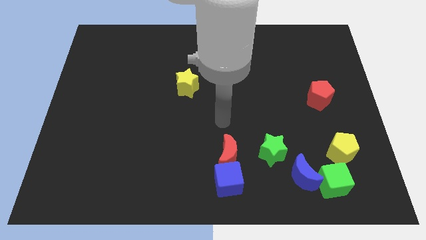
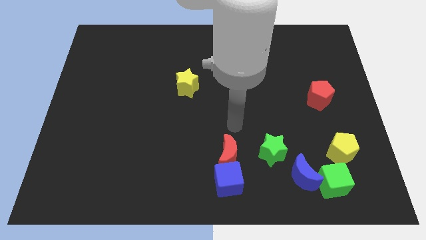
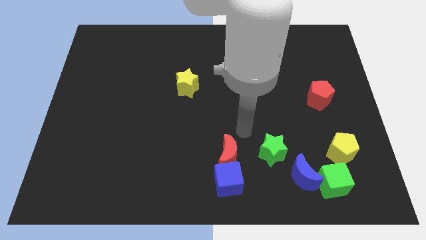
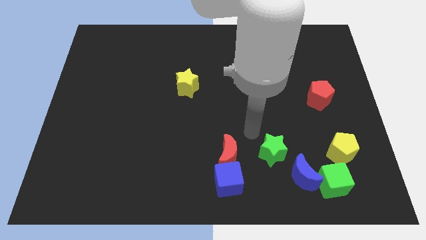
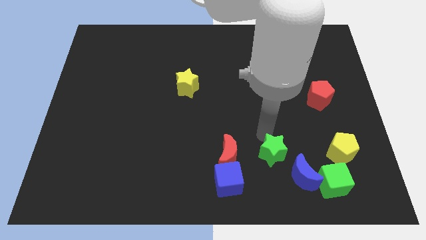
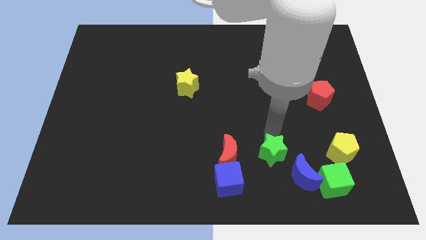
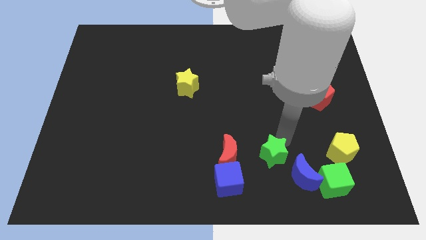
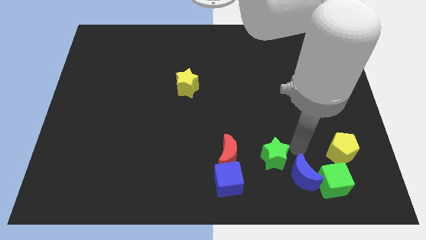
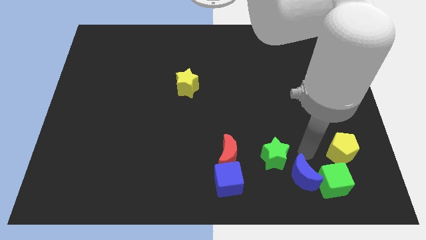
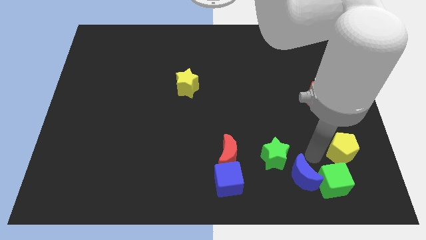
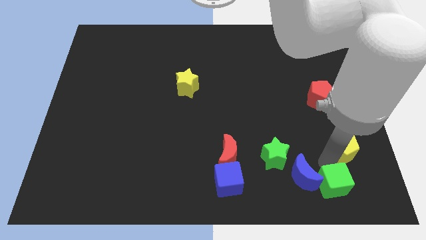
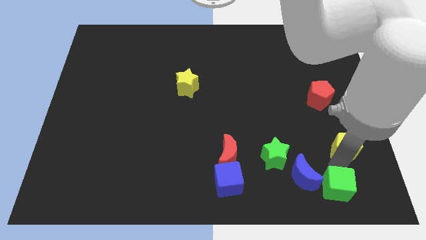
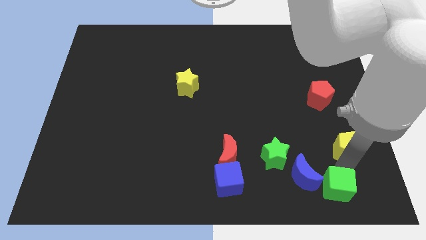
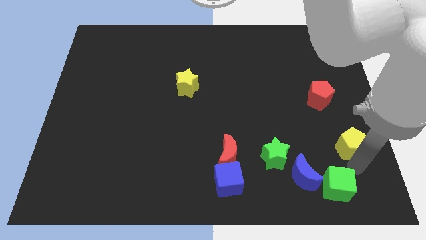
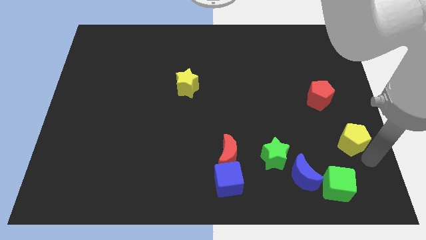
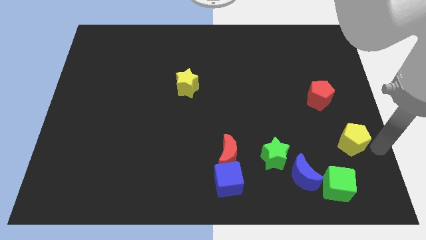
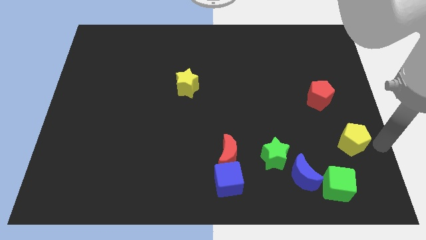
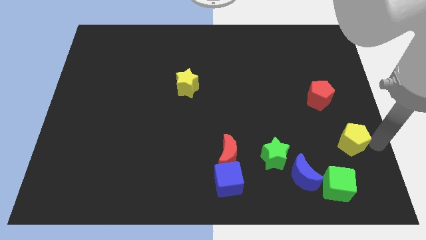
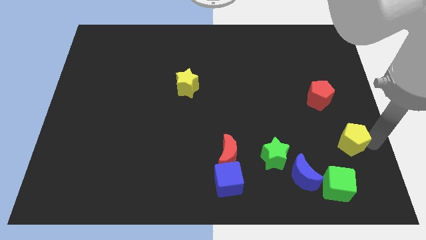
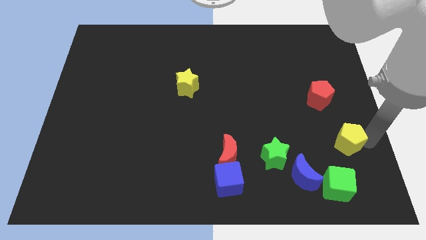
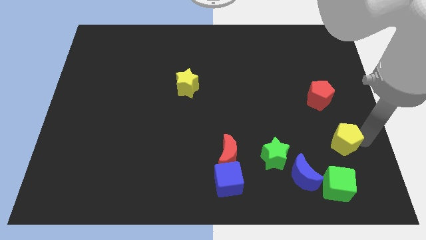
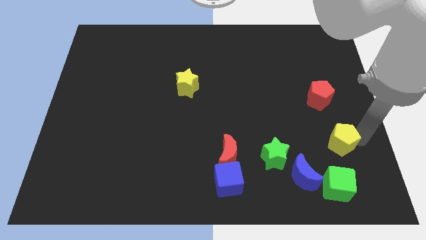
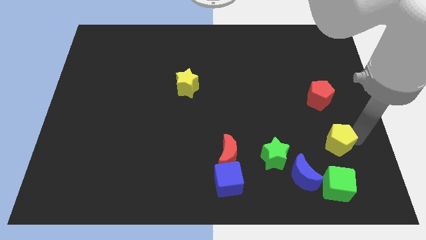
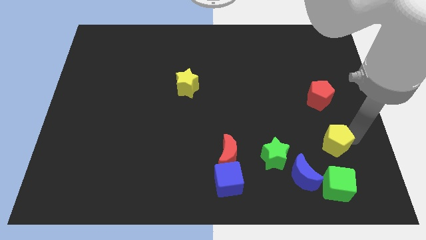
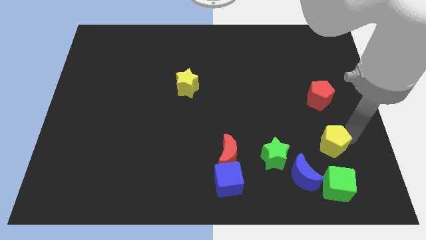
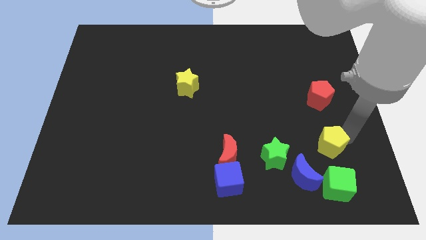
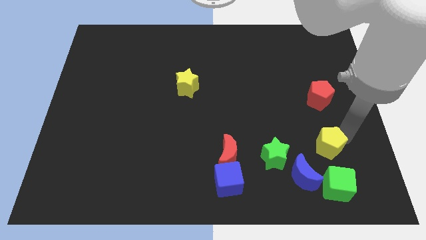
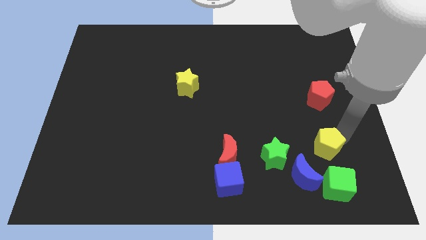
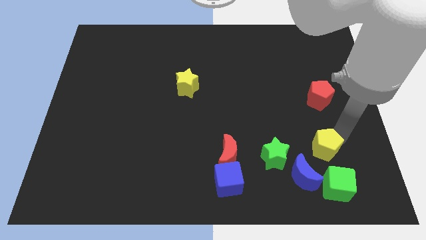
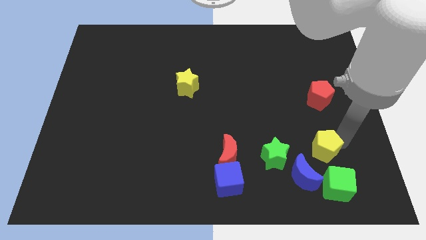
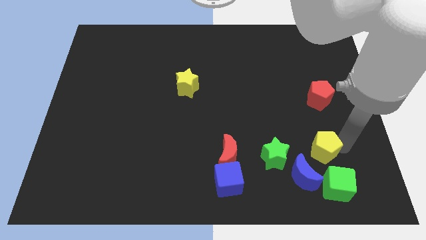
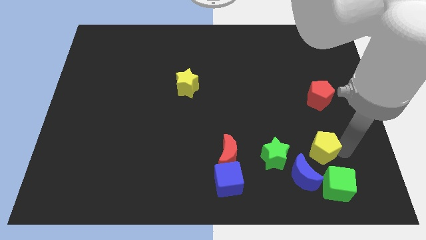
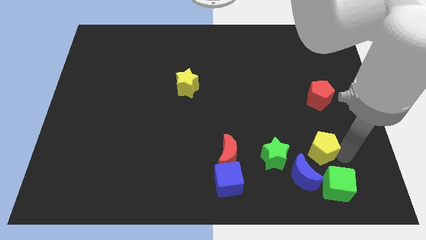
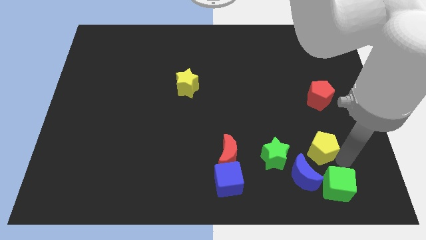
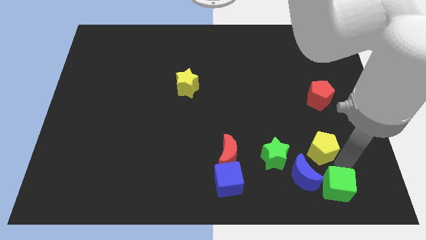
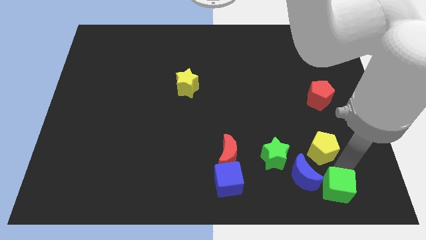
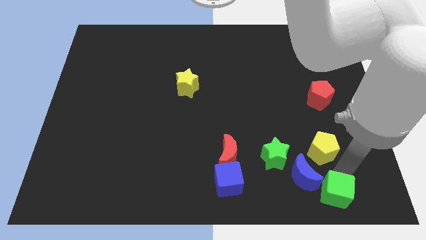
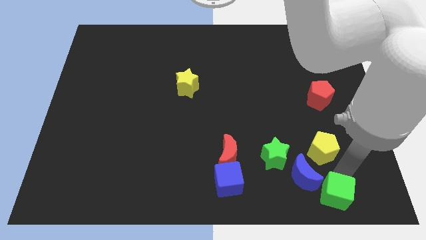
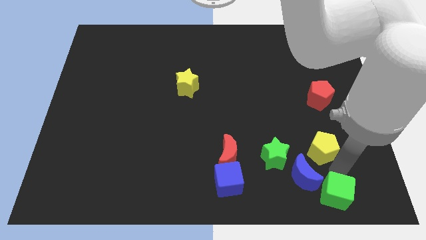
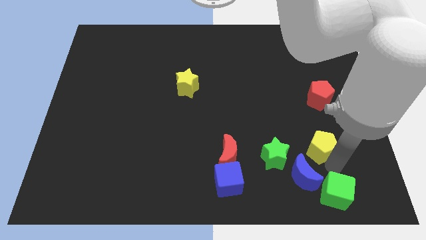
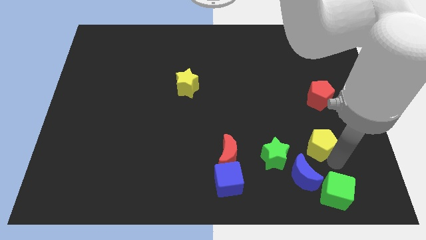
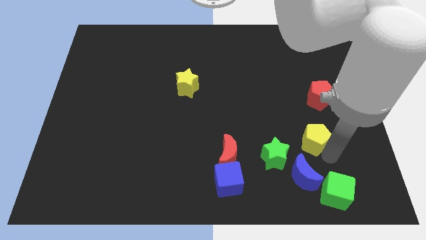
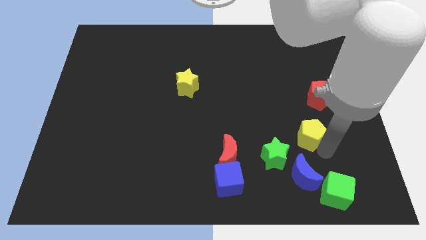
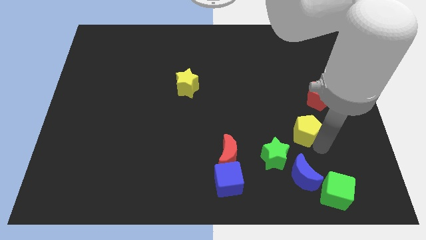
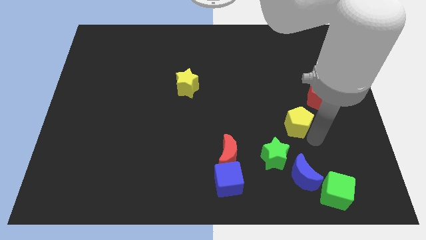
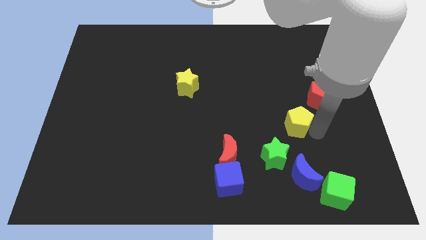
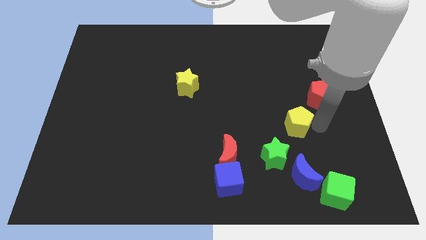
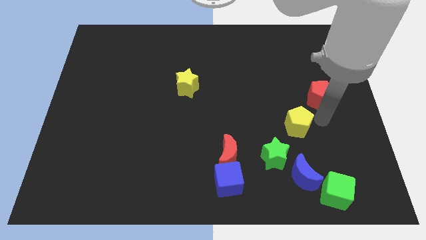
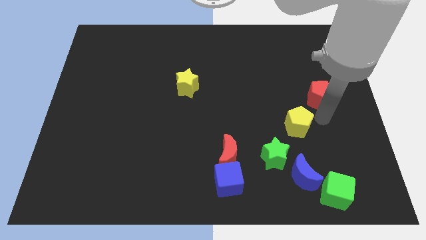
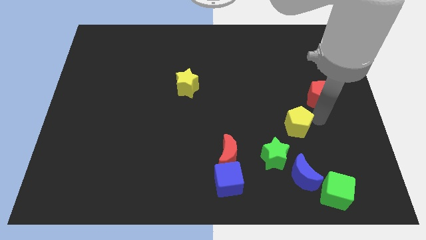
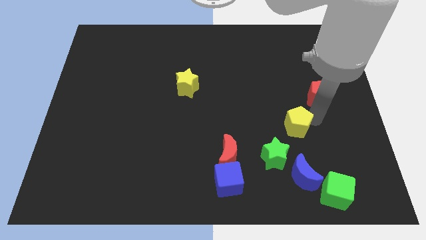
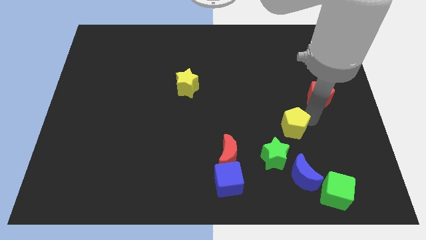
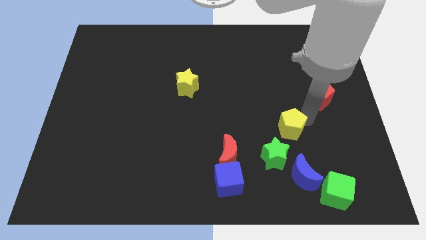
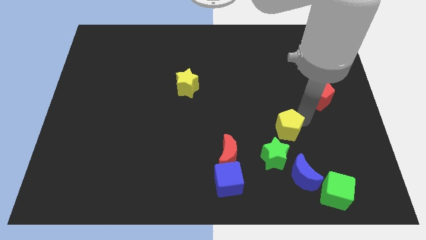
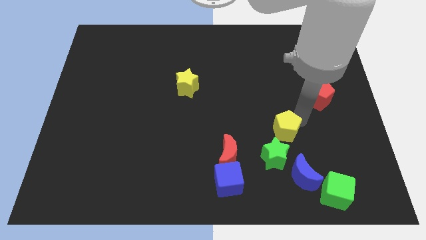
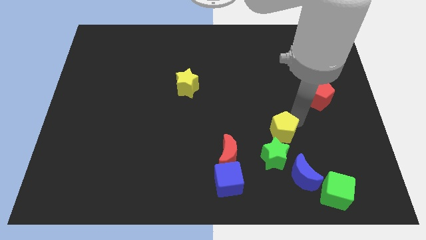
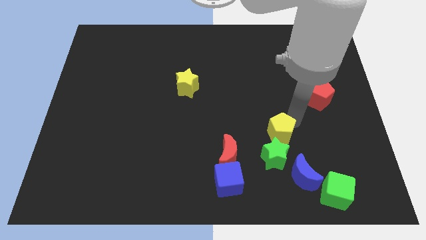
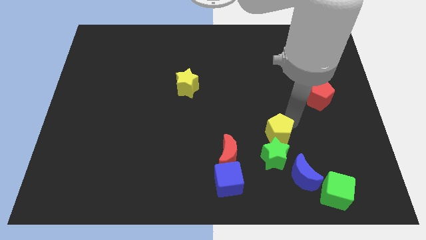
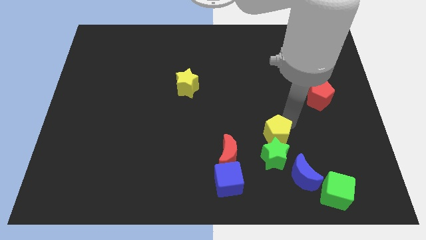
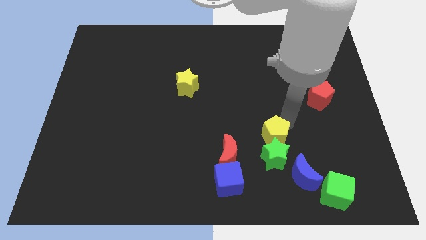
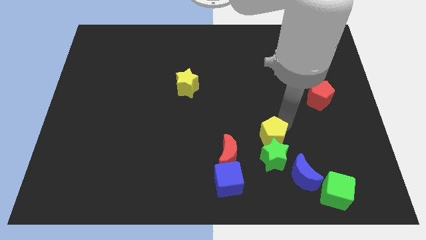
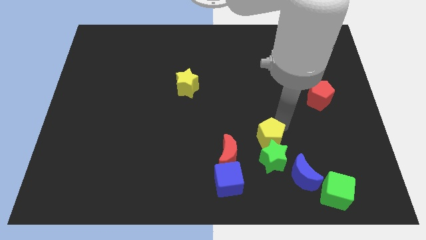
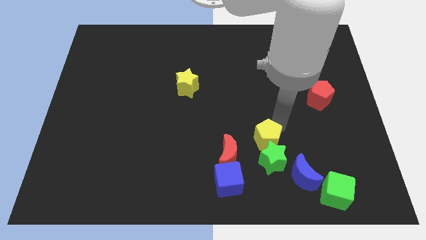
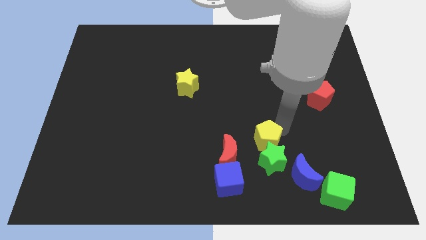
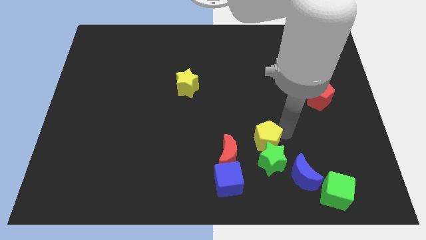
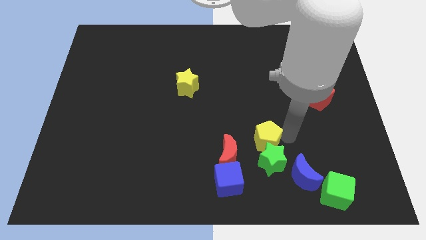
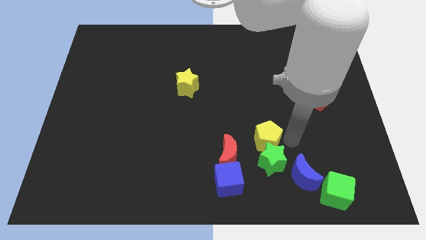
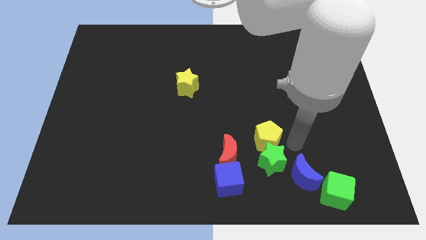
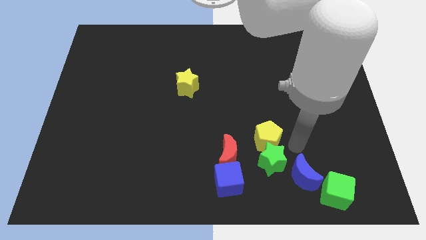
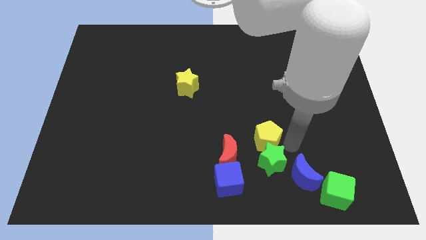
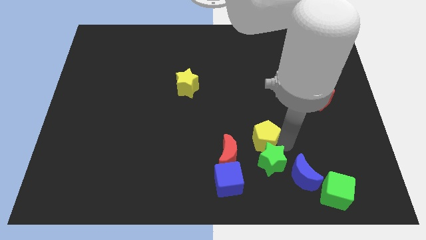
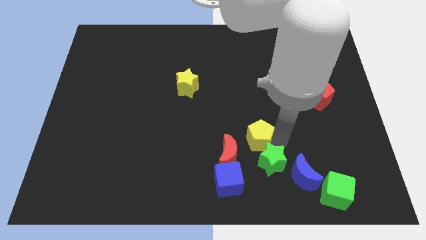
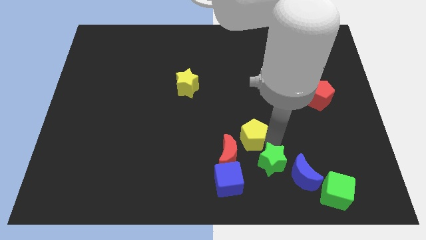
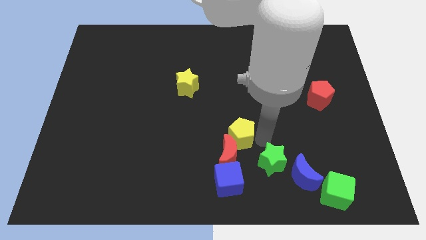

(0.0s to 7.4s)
slide the yellow pentagon to the left

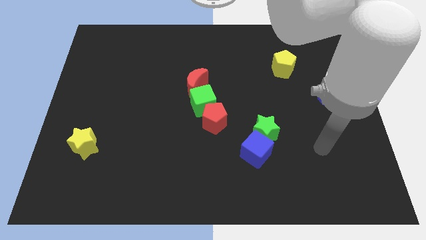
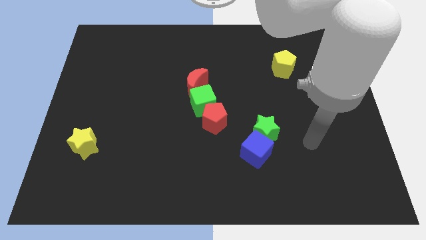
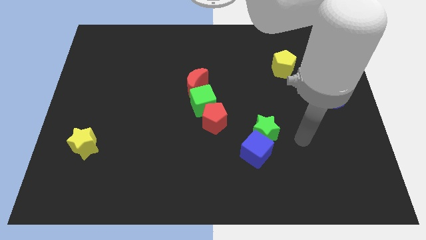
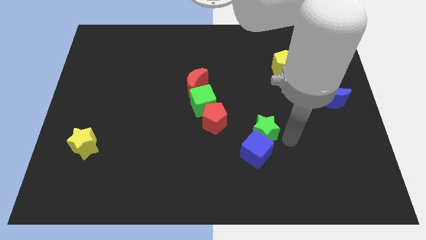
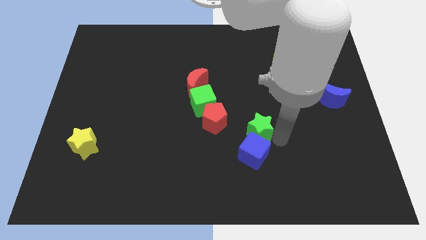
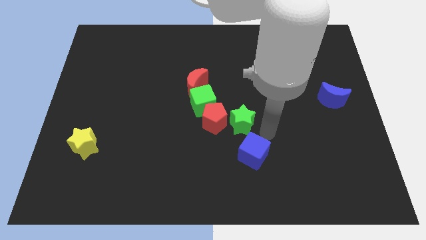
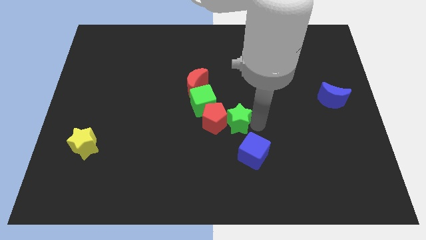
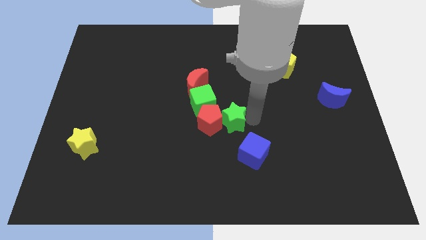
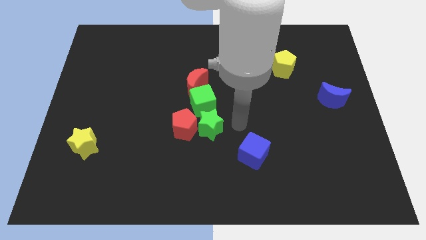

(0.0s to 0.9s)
slightly push the red pentagon left

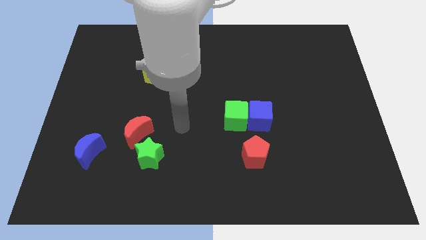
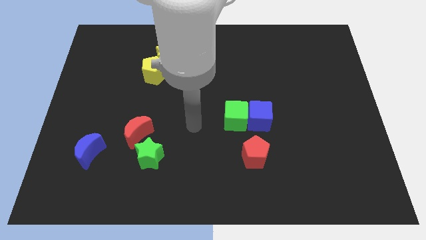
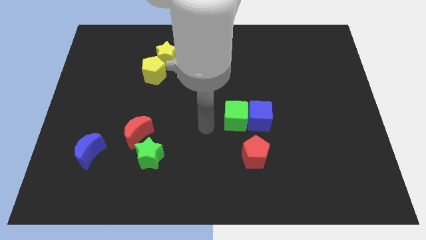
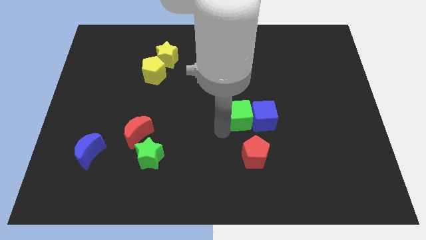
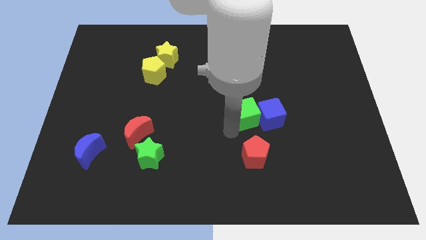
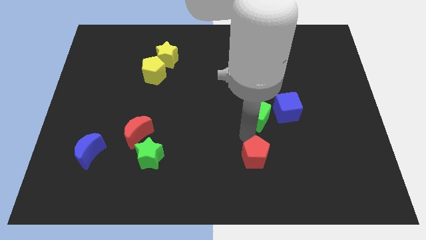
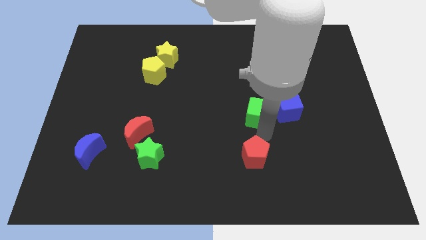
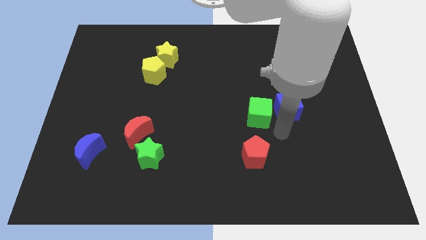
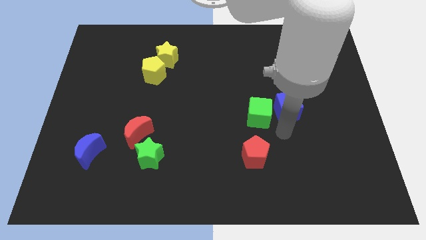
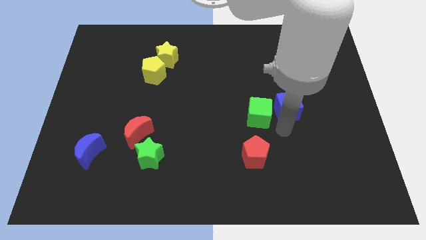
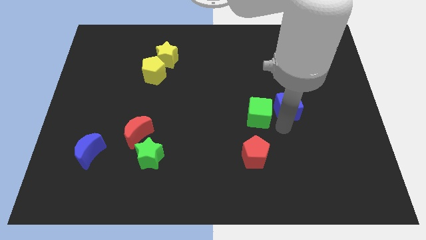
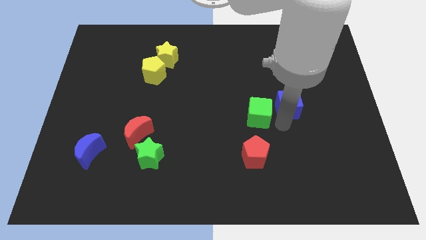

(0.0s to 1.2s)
move the blue cube a bit up and then to the right
